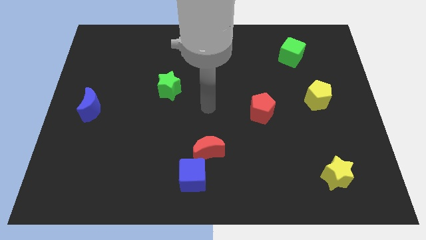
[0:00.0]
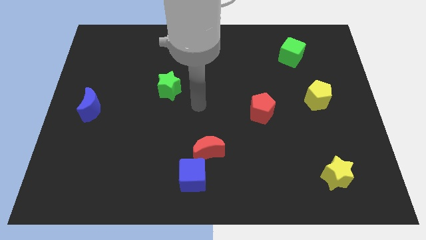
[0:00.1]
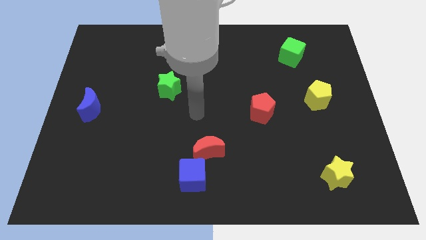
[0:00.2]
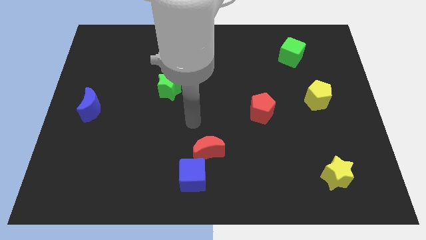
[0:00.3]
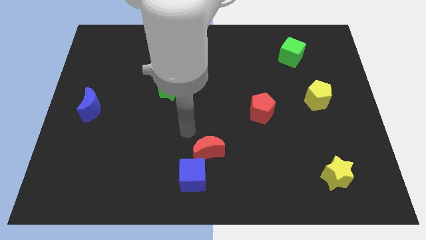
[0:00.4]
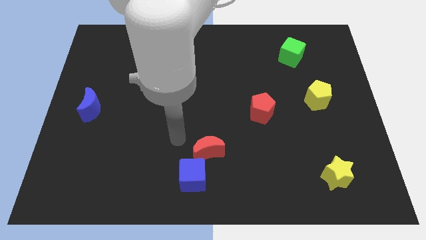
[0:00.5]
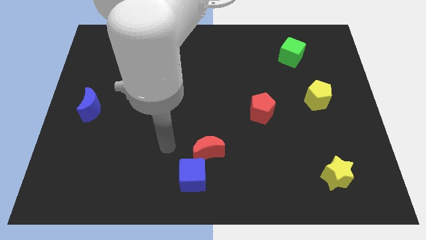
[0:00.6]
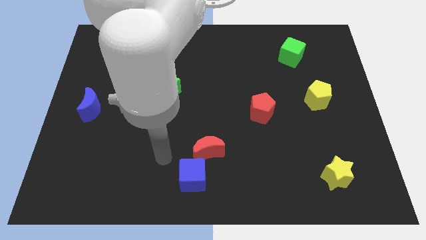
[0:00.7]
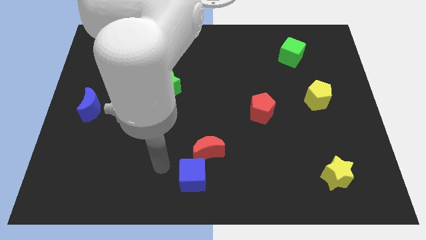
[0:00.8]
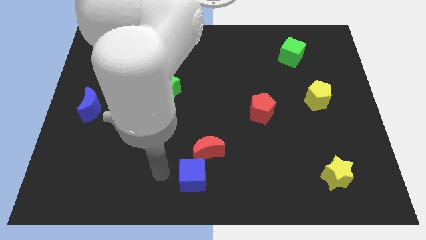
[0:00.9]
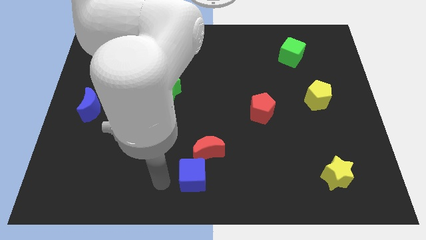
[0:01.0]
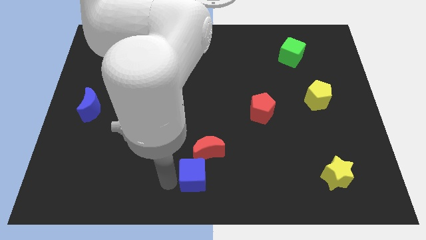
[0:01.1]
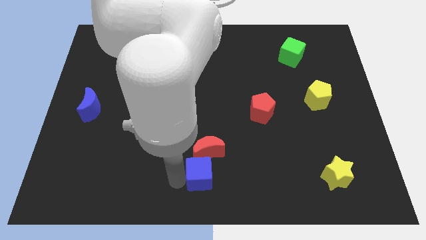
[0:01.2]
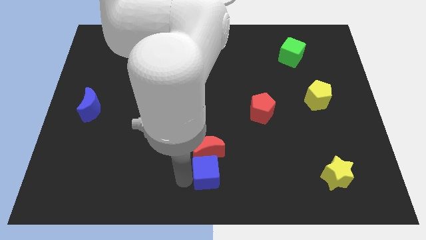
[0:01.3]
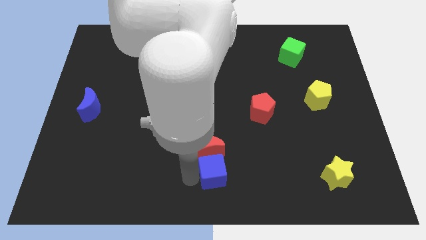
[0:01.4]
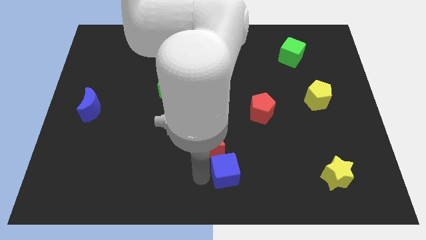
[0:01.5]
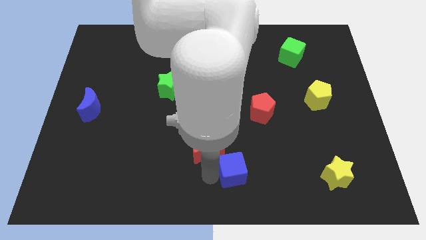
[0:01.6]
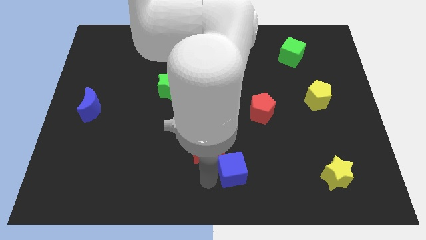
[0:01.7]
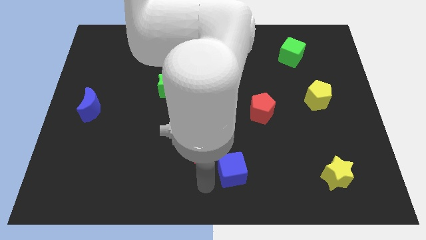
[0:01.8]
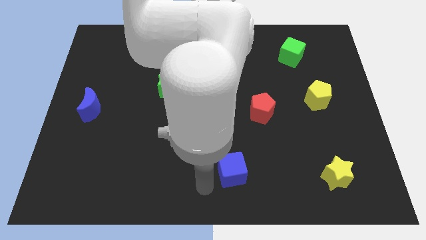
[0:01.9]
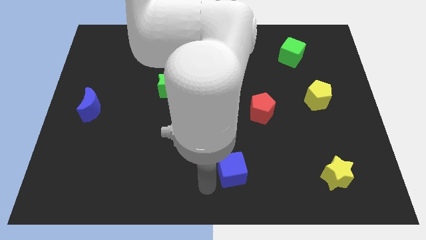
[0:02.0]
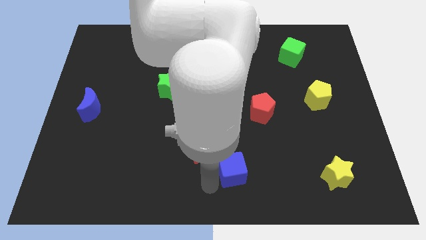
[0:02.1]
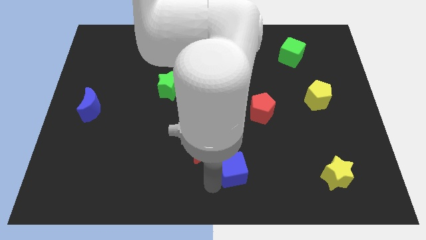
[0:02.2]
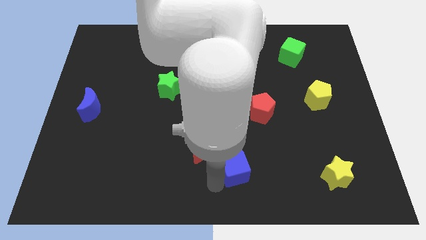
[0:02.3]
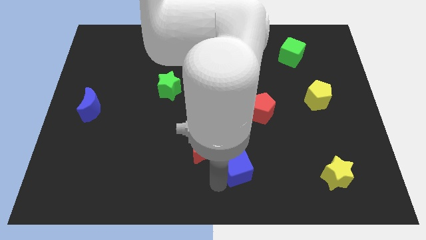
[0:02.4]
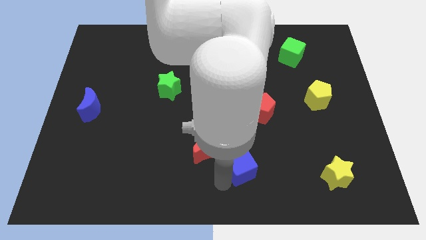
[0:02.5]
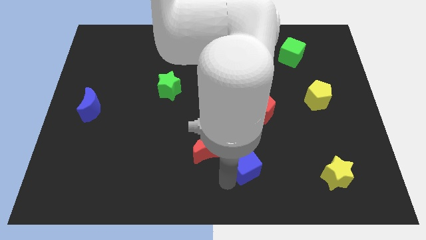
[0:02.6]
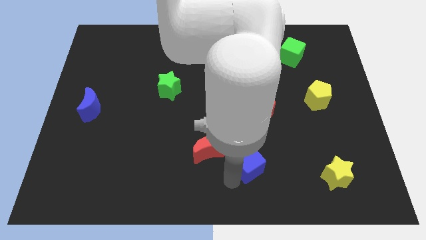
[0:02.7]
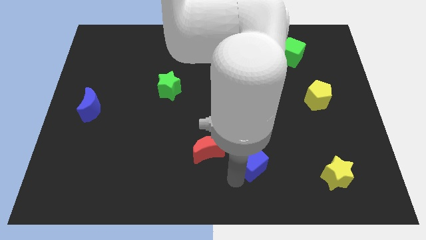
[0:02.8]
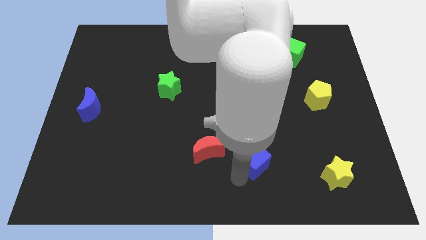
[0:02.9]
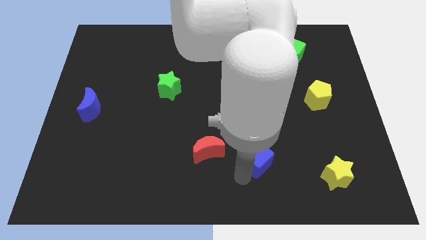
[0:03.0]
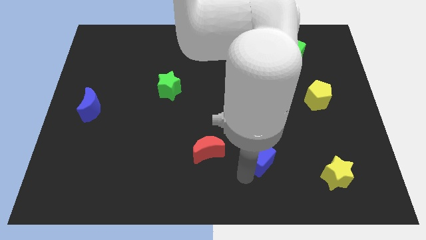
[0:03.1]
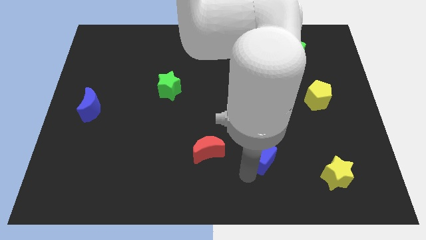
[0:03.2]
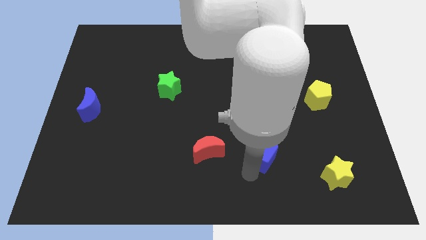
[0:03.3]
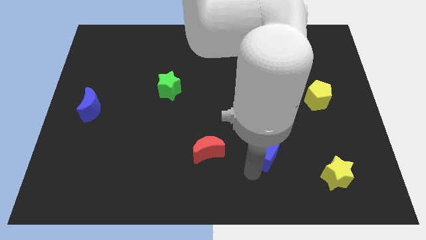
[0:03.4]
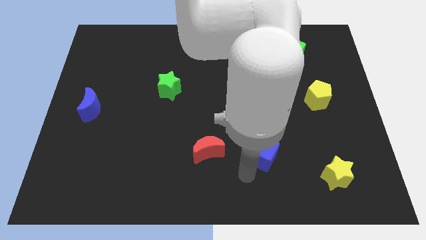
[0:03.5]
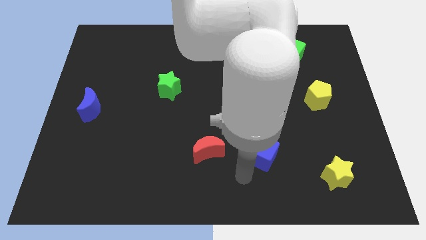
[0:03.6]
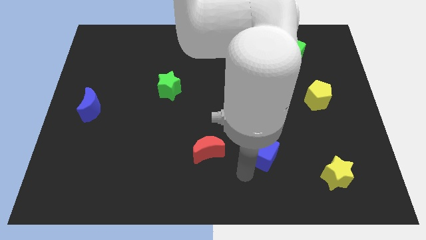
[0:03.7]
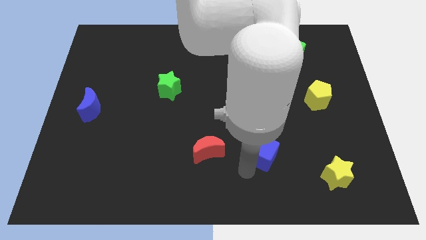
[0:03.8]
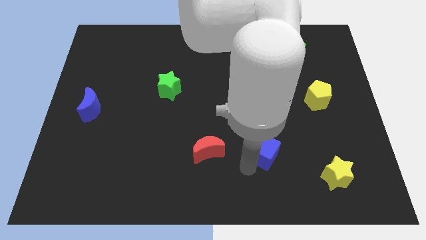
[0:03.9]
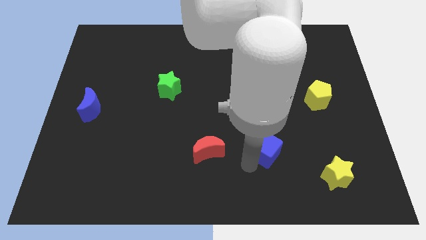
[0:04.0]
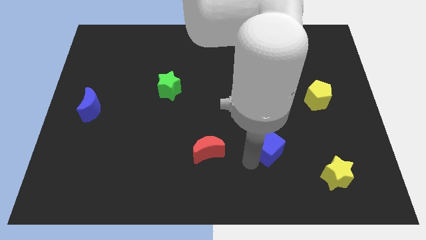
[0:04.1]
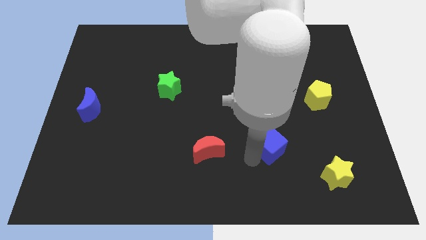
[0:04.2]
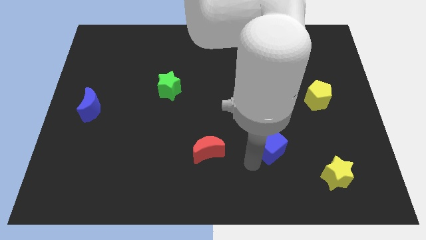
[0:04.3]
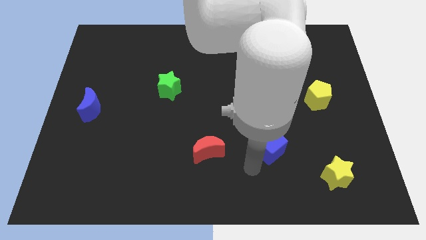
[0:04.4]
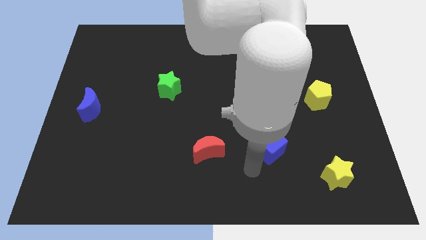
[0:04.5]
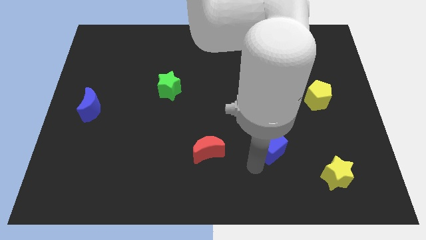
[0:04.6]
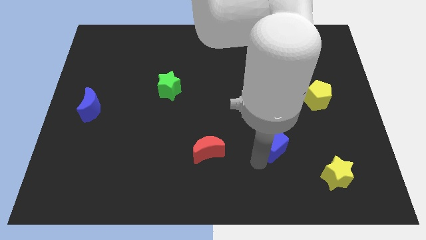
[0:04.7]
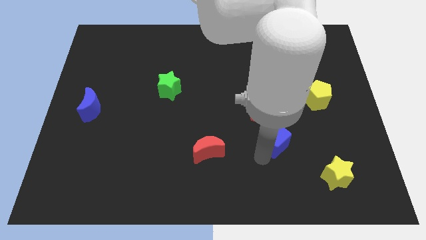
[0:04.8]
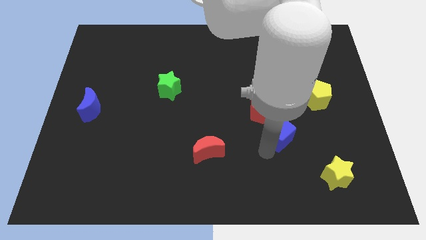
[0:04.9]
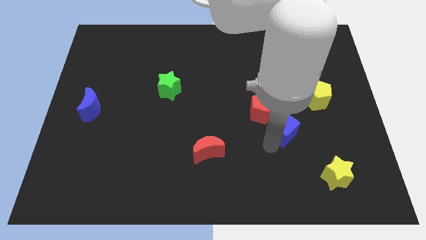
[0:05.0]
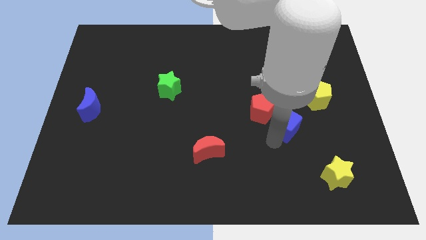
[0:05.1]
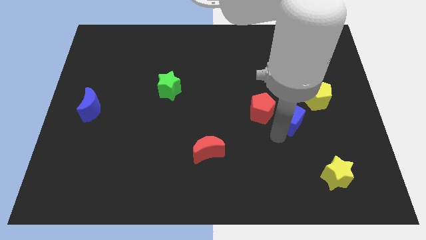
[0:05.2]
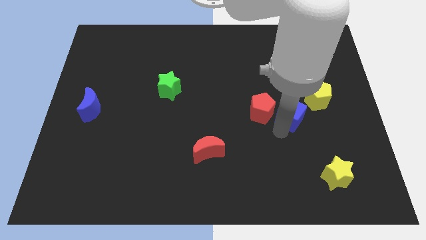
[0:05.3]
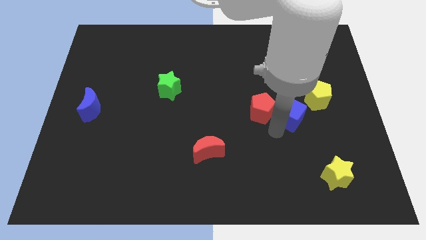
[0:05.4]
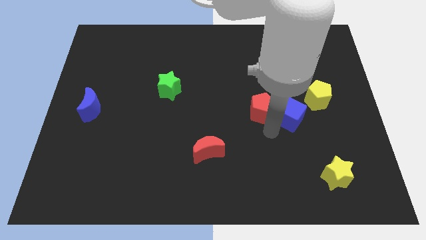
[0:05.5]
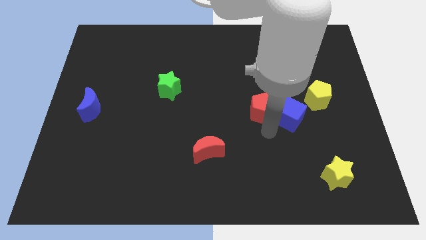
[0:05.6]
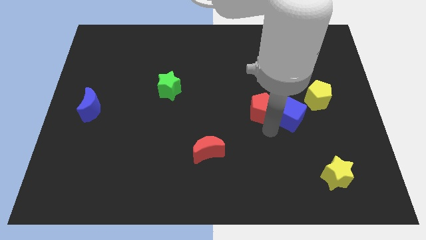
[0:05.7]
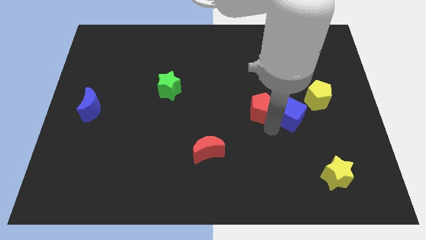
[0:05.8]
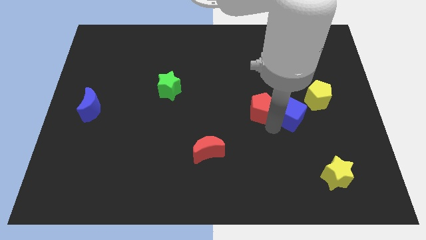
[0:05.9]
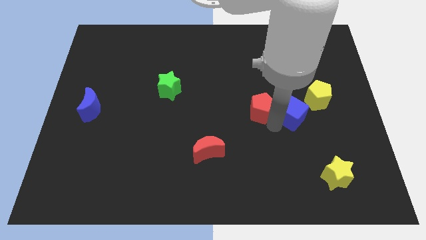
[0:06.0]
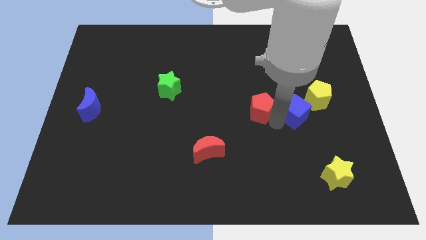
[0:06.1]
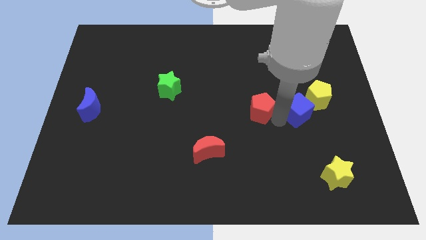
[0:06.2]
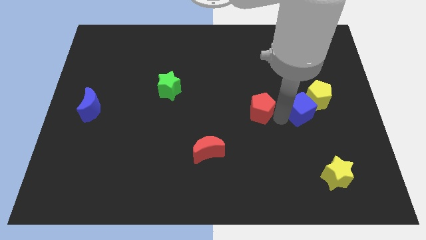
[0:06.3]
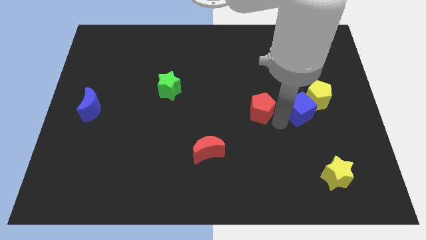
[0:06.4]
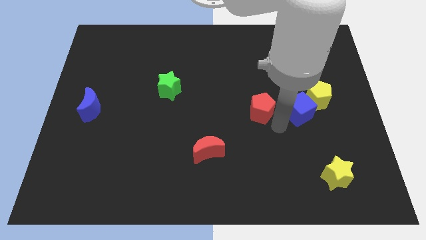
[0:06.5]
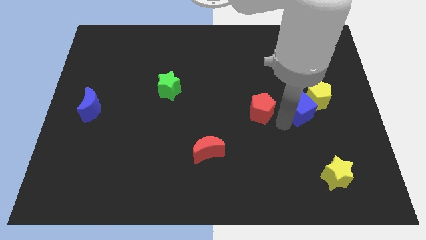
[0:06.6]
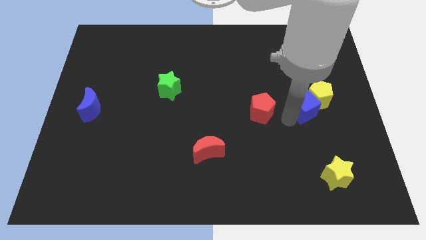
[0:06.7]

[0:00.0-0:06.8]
slide the blue cube close to the yellow pentagon
